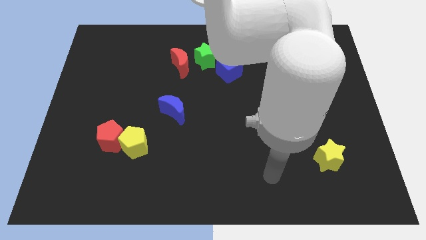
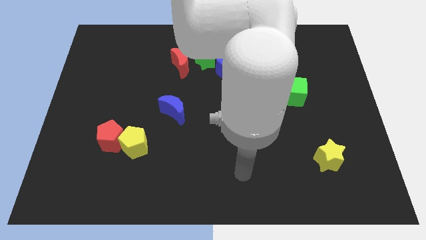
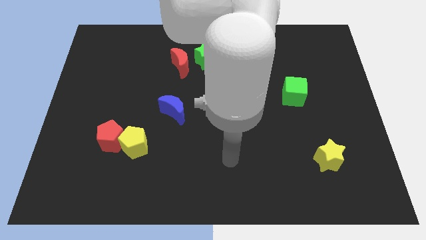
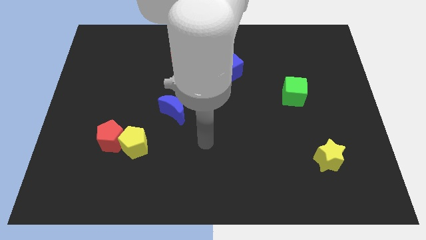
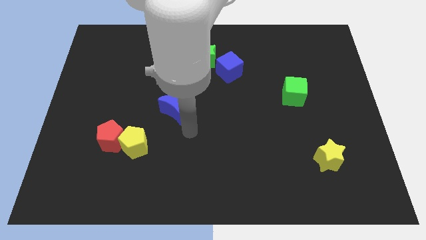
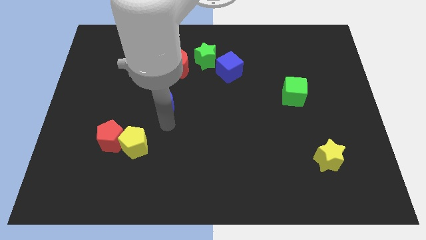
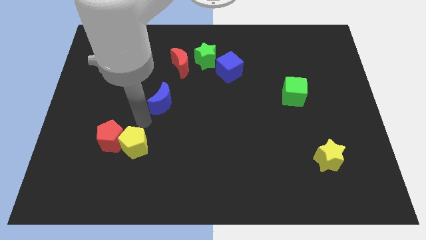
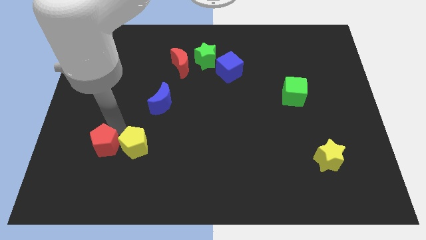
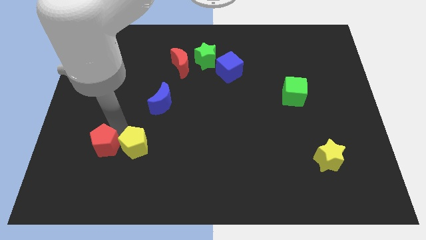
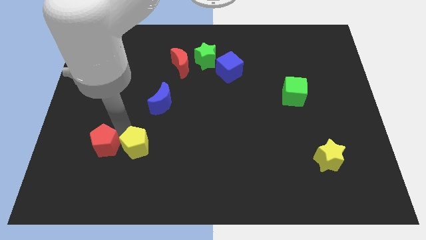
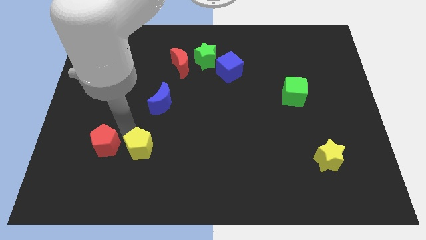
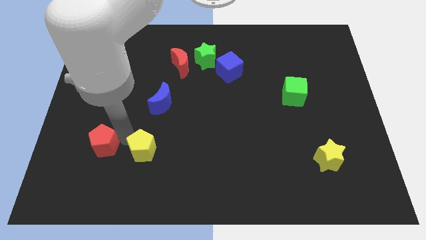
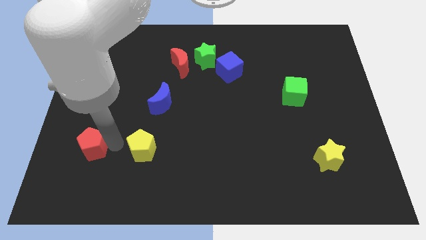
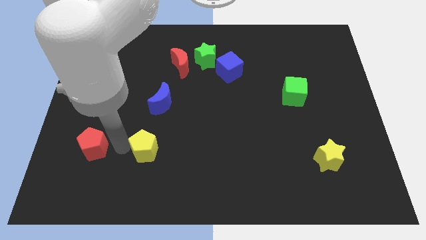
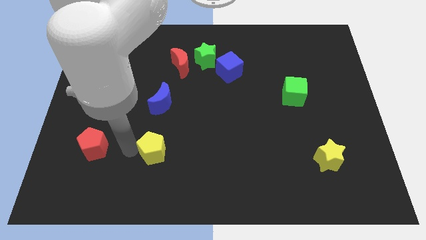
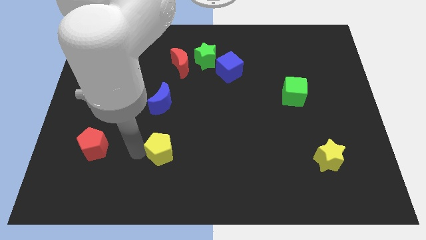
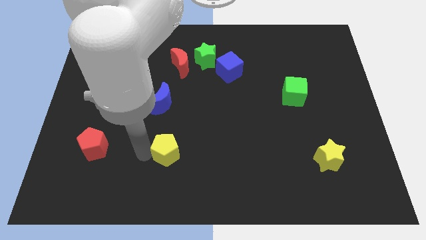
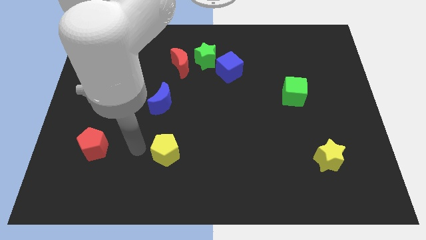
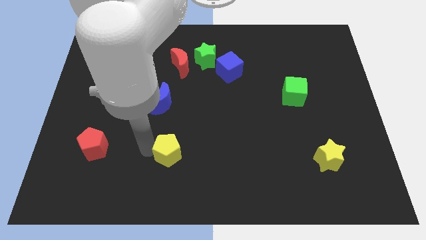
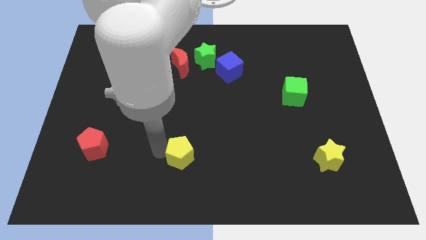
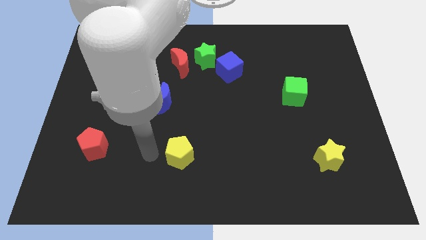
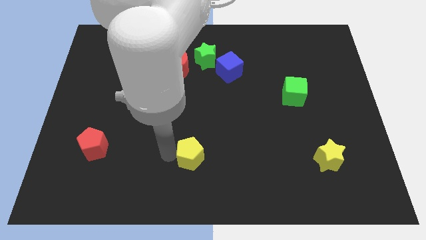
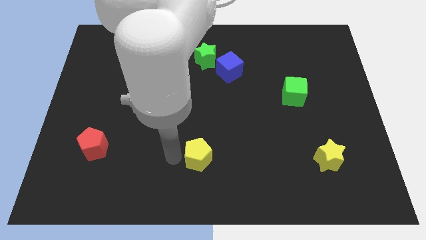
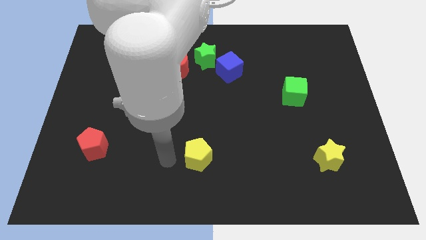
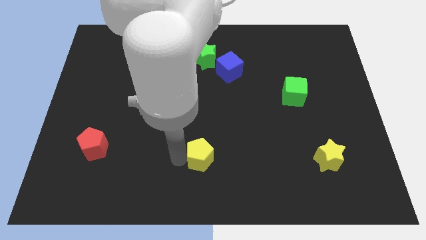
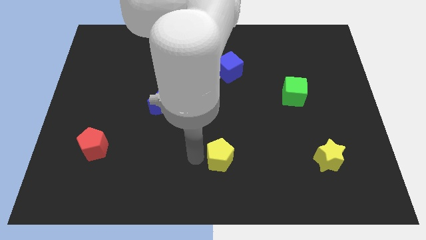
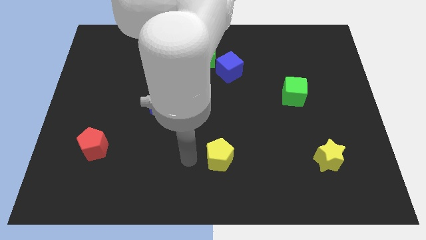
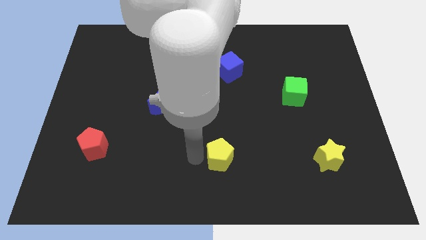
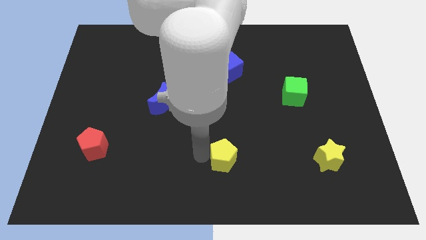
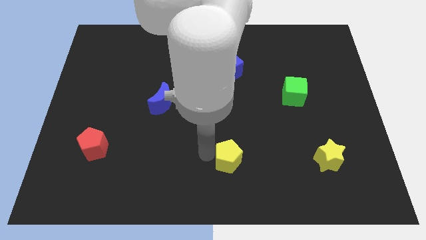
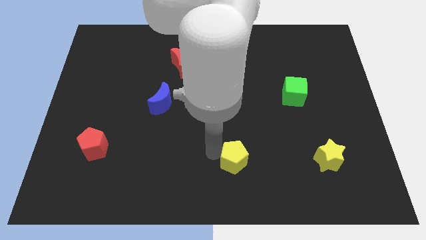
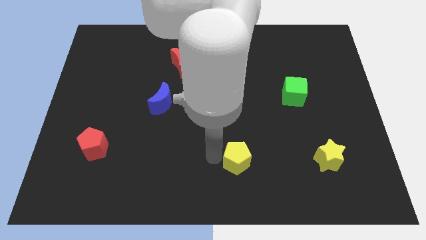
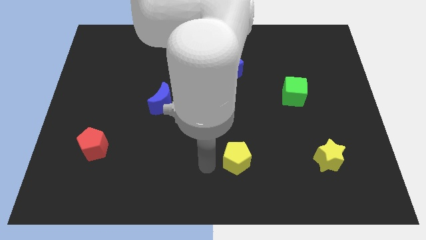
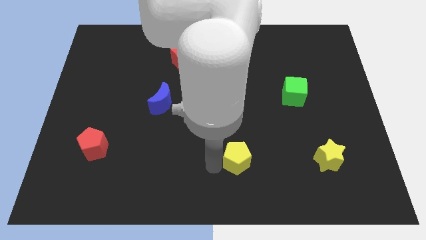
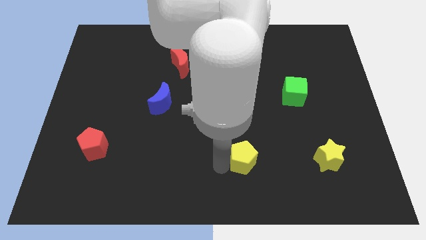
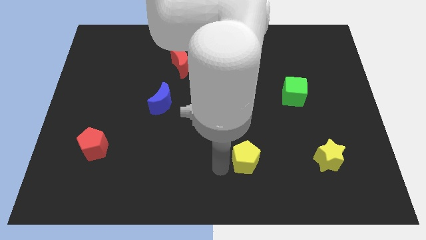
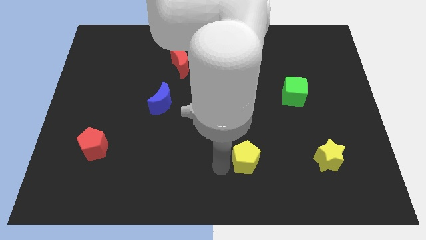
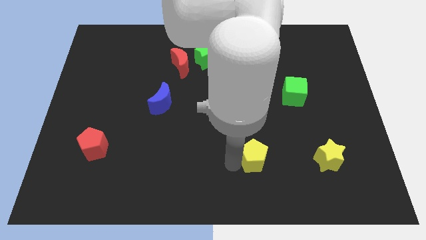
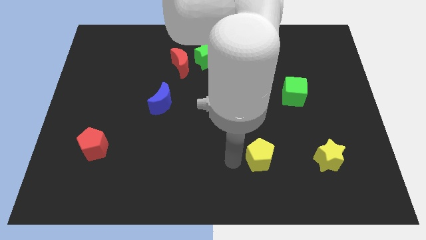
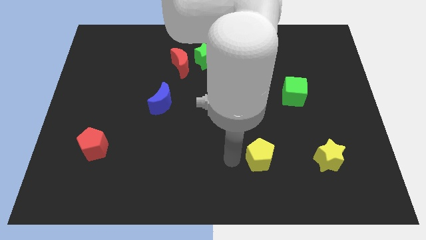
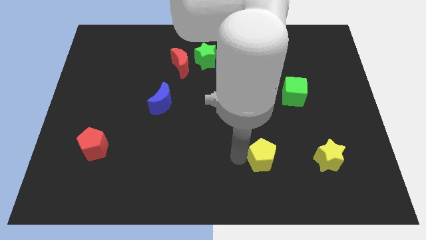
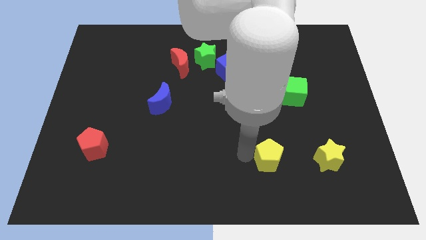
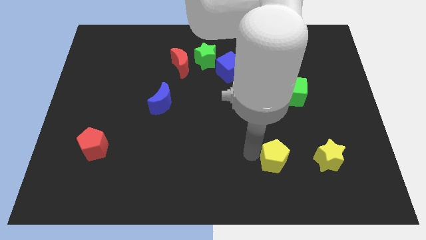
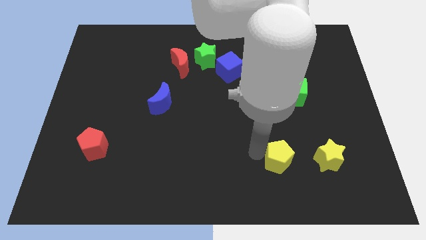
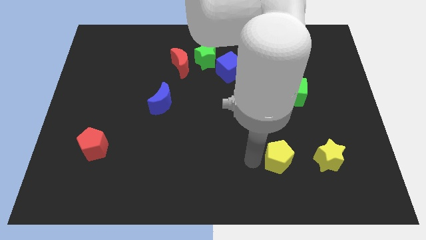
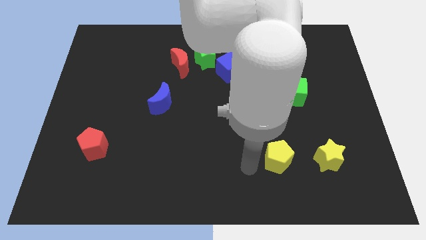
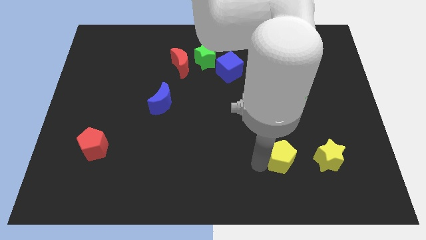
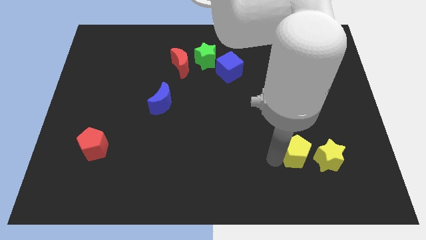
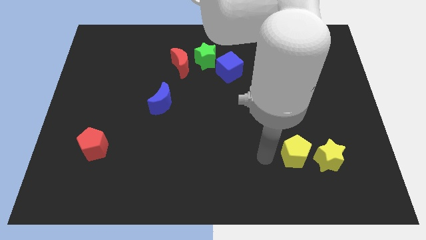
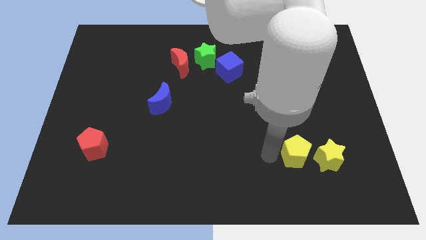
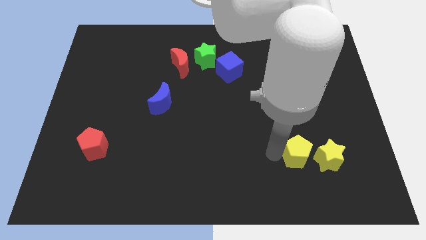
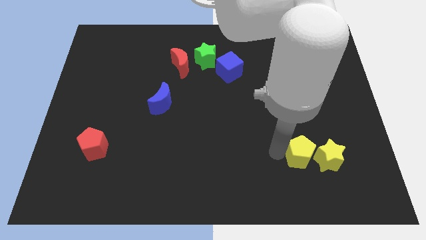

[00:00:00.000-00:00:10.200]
push the yellow pentagon towards the yellow star

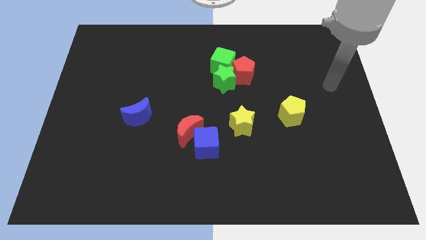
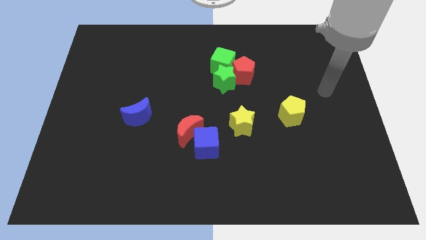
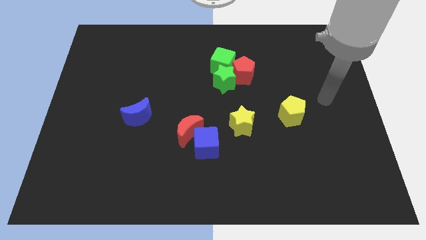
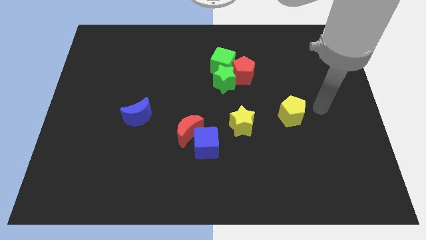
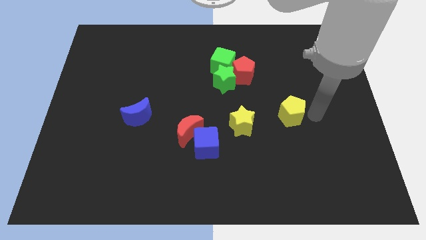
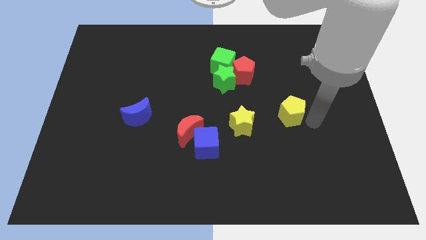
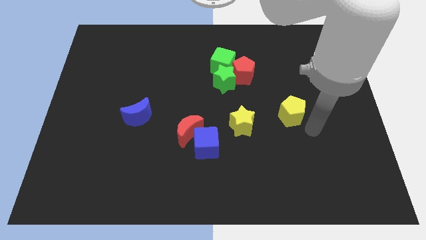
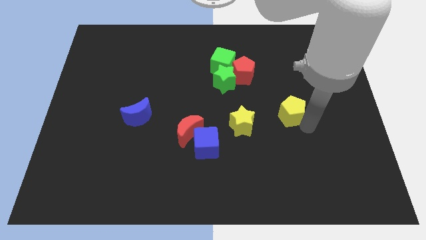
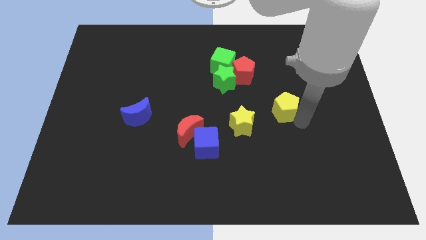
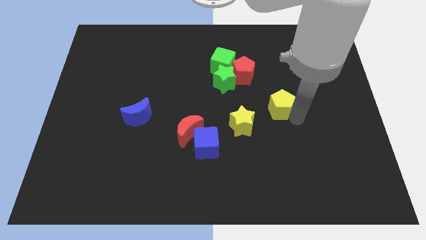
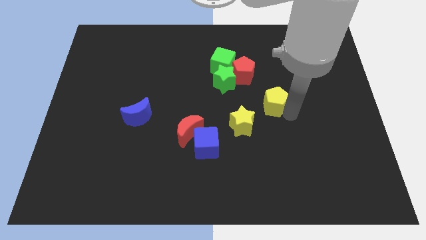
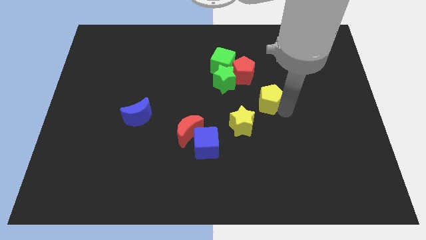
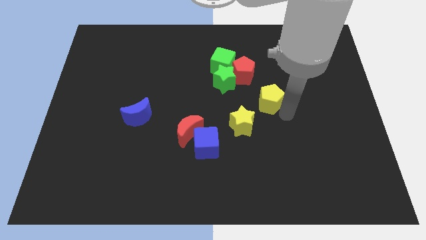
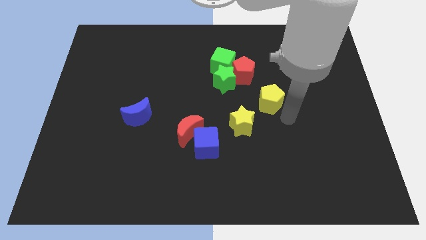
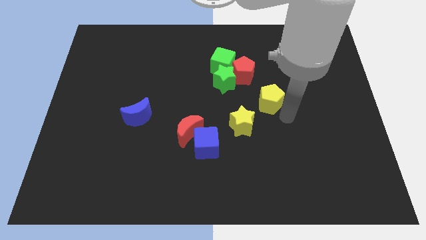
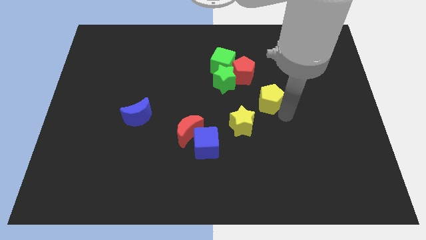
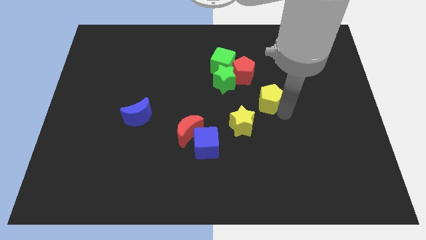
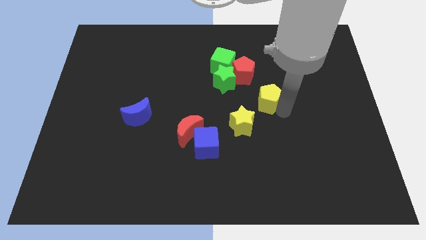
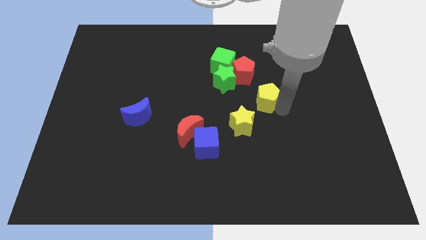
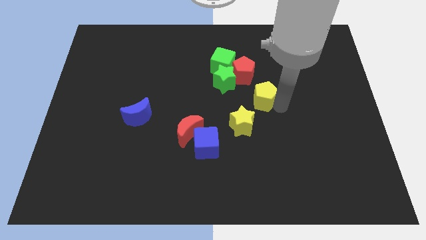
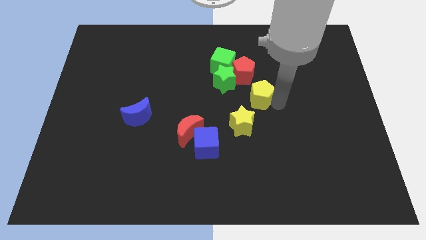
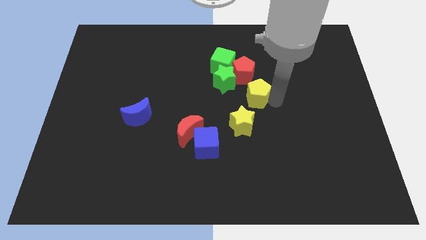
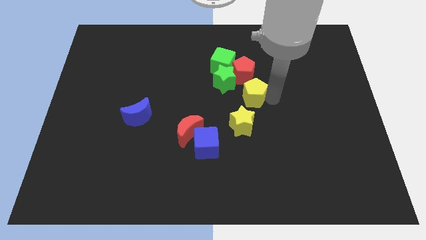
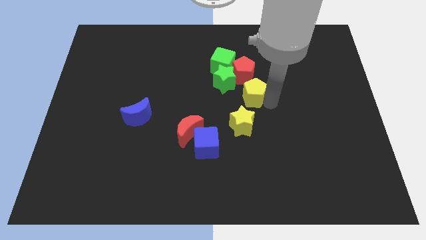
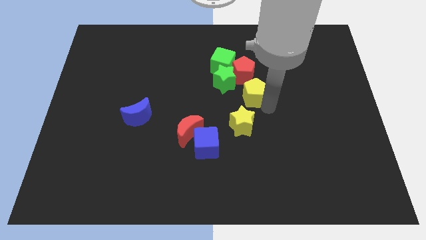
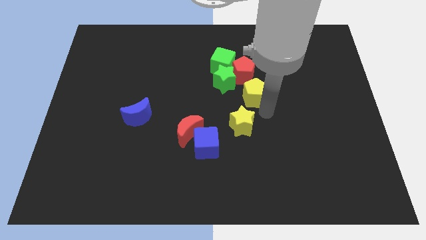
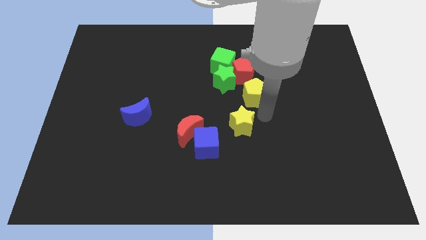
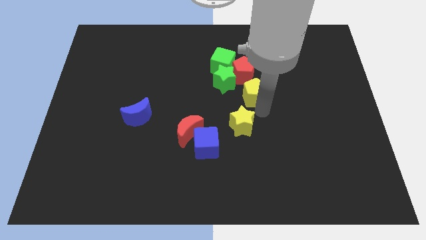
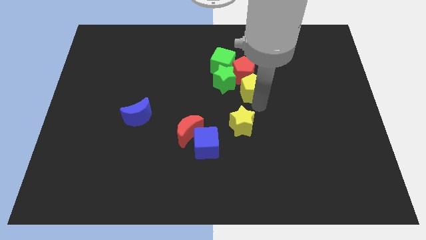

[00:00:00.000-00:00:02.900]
slide the yellow pentagon close to the red pentagon
